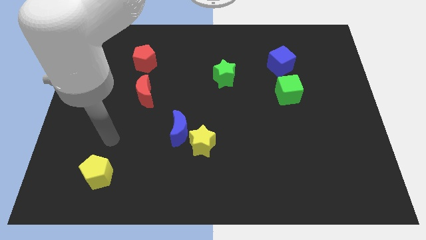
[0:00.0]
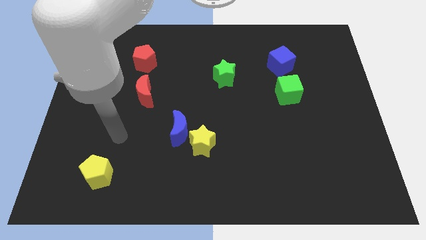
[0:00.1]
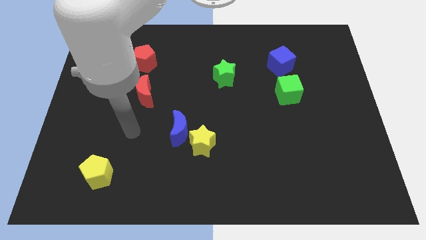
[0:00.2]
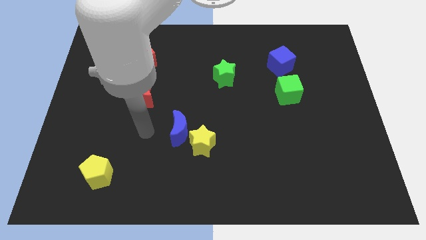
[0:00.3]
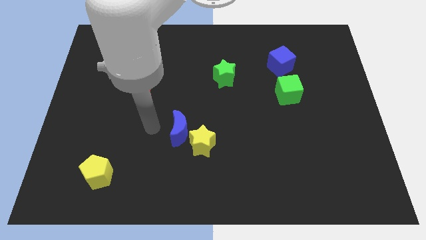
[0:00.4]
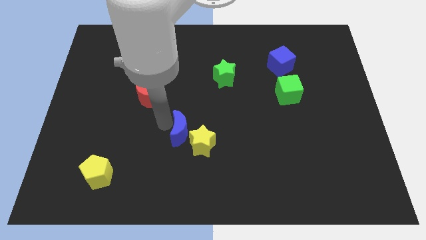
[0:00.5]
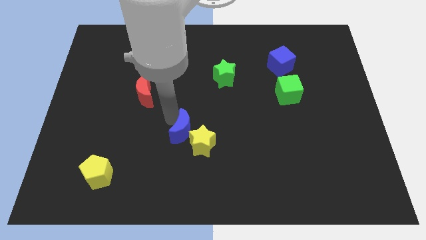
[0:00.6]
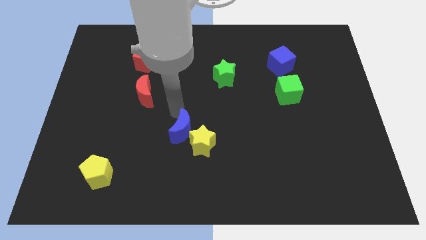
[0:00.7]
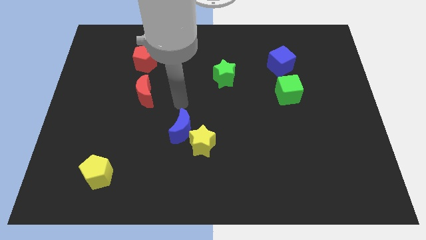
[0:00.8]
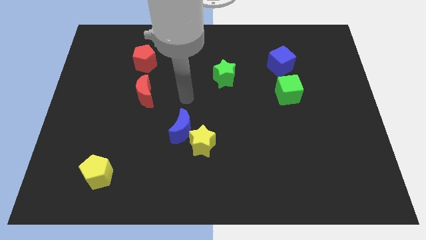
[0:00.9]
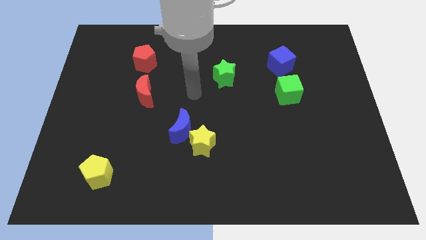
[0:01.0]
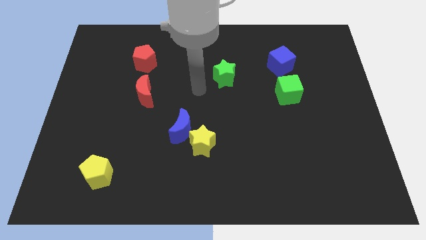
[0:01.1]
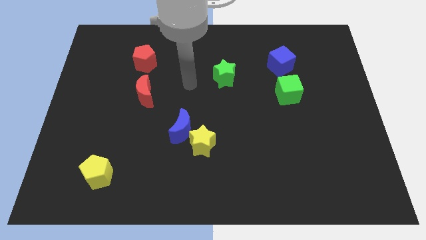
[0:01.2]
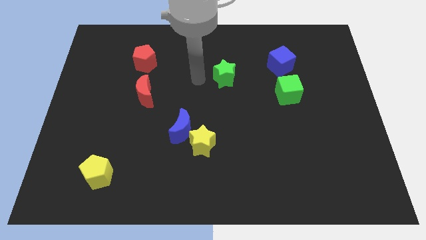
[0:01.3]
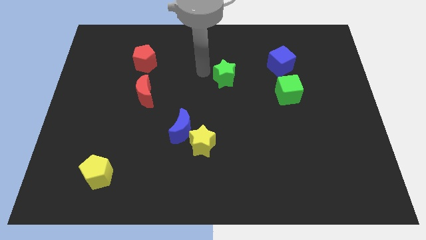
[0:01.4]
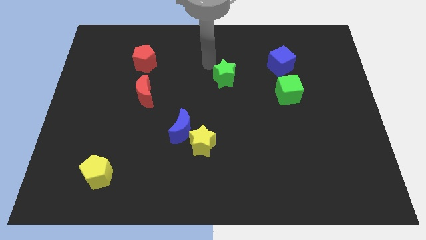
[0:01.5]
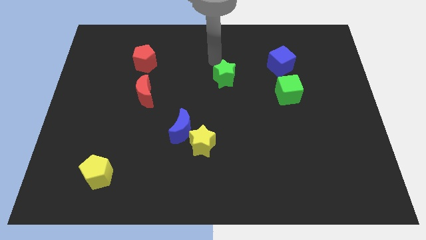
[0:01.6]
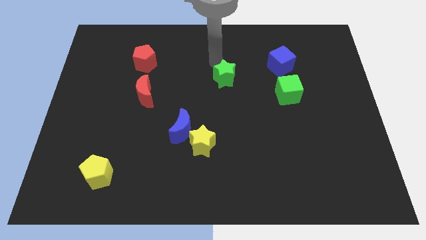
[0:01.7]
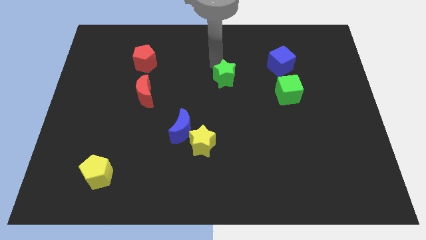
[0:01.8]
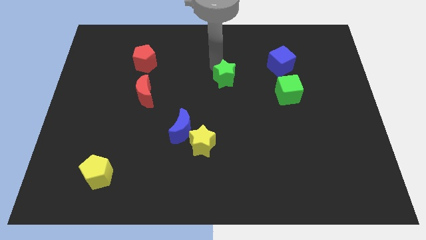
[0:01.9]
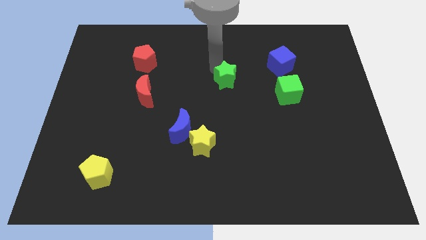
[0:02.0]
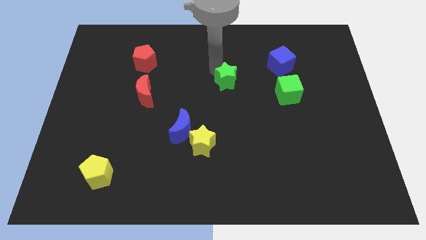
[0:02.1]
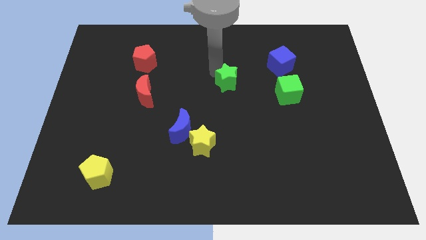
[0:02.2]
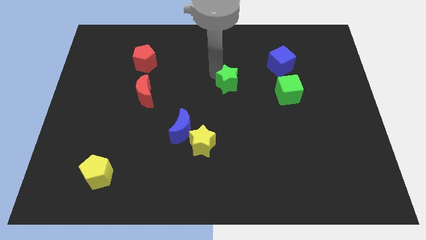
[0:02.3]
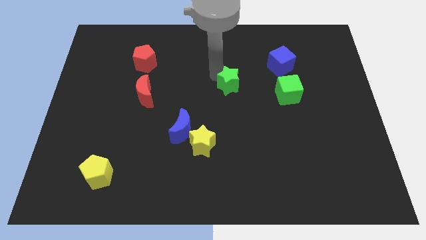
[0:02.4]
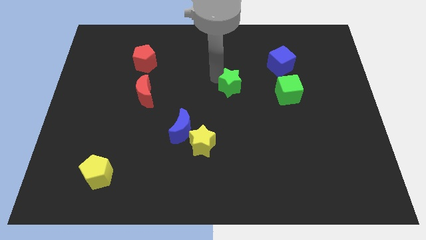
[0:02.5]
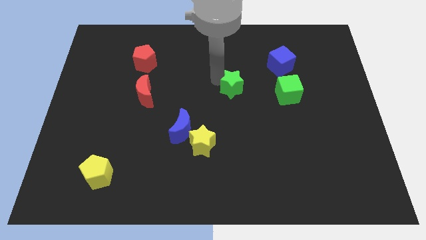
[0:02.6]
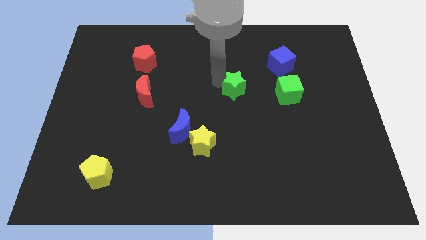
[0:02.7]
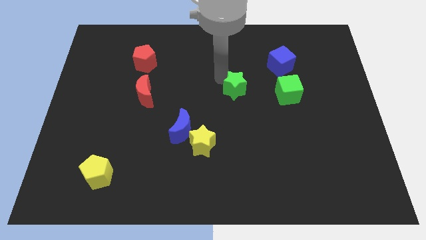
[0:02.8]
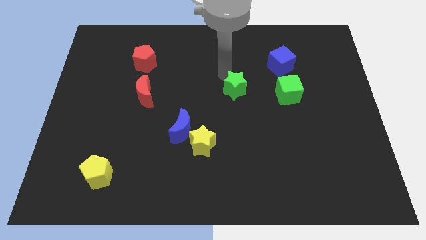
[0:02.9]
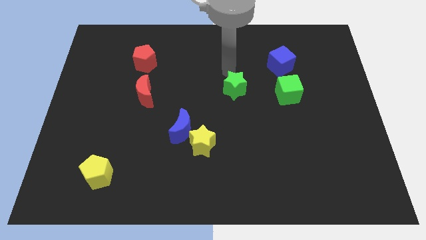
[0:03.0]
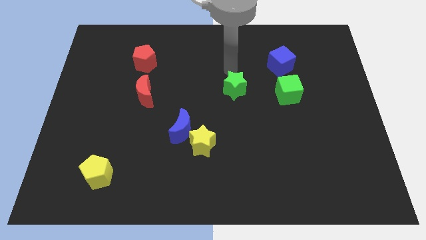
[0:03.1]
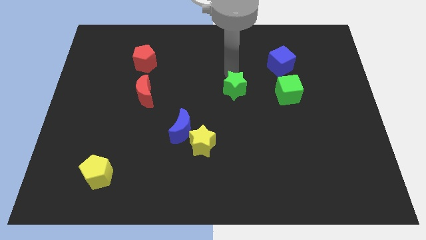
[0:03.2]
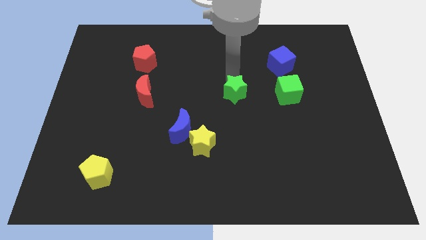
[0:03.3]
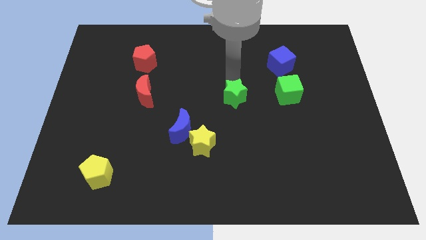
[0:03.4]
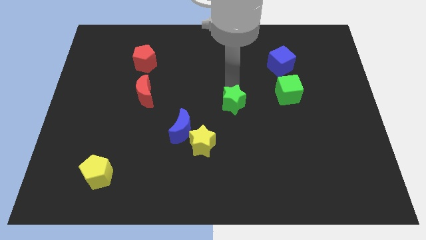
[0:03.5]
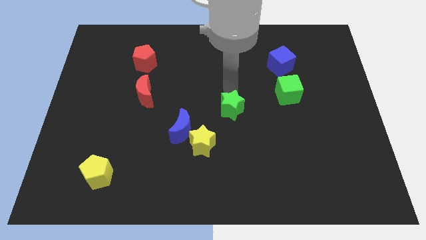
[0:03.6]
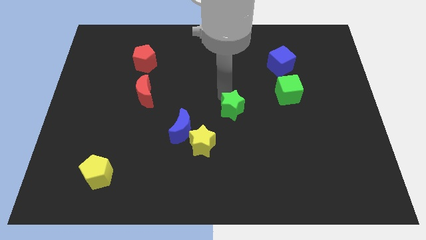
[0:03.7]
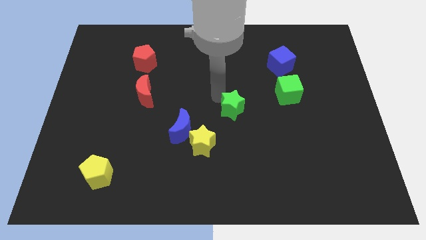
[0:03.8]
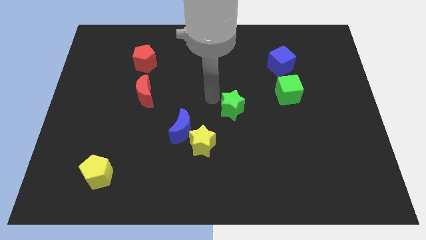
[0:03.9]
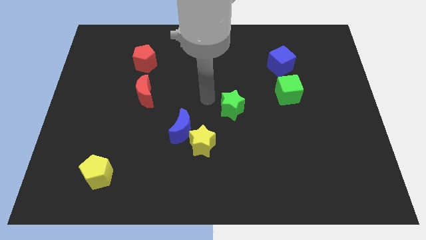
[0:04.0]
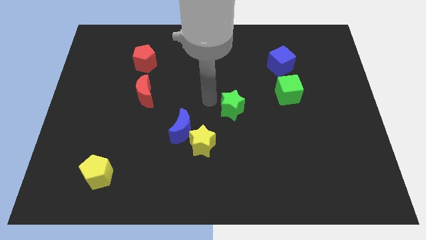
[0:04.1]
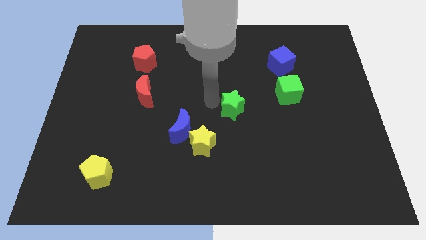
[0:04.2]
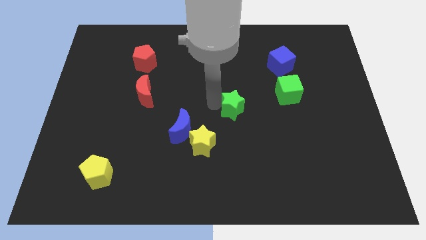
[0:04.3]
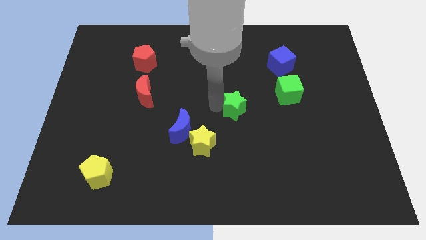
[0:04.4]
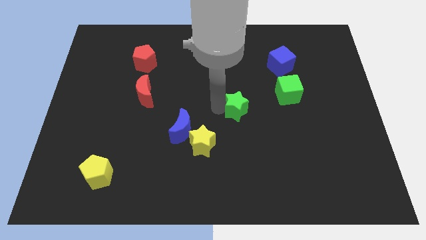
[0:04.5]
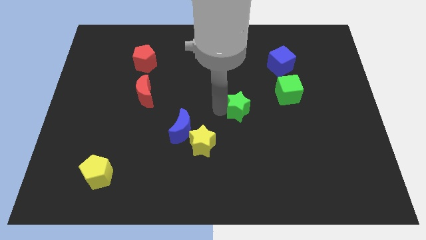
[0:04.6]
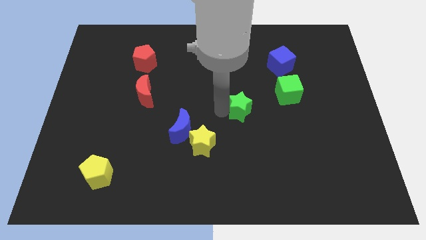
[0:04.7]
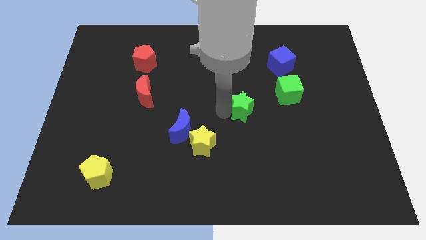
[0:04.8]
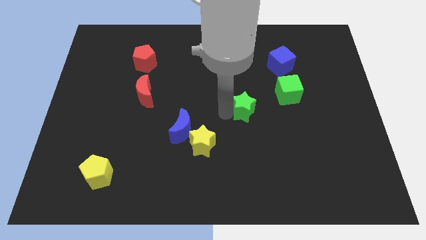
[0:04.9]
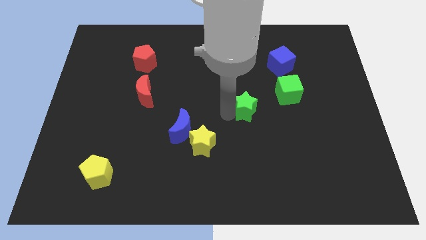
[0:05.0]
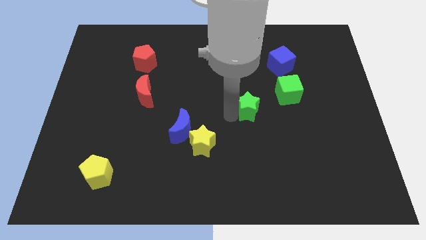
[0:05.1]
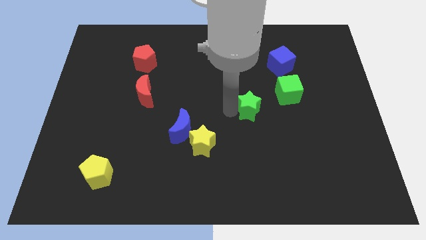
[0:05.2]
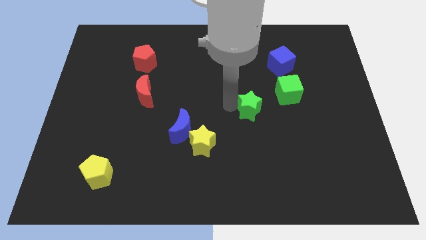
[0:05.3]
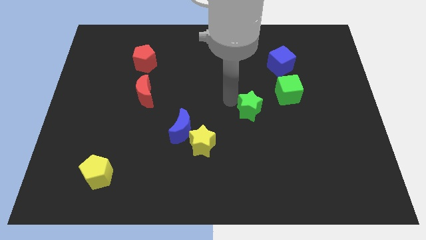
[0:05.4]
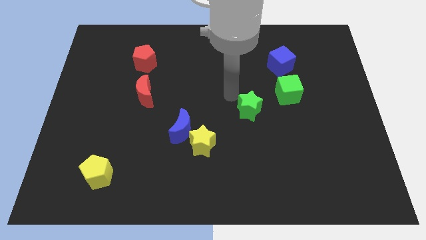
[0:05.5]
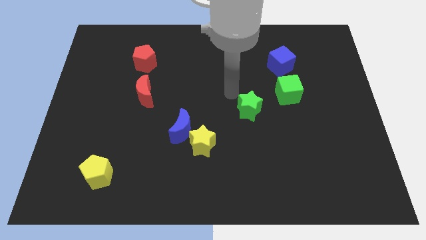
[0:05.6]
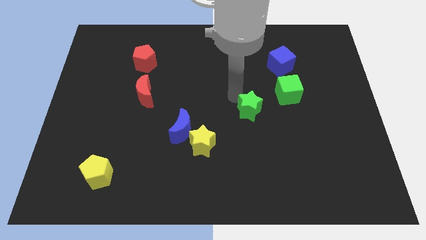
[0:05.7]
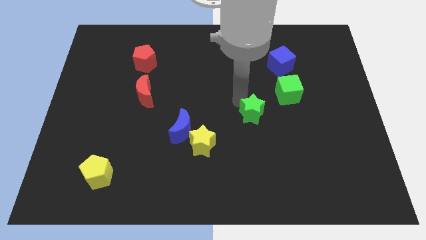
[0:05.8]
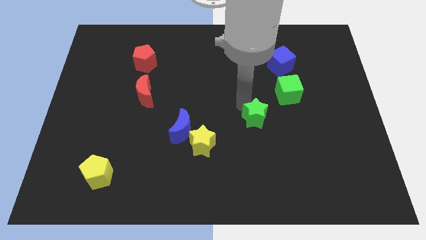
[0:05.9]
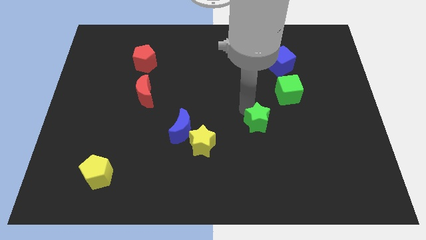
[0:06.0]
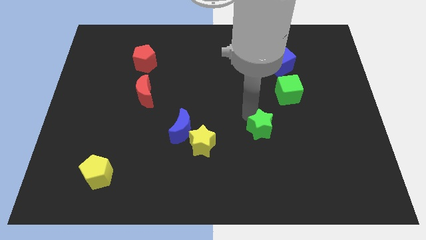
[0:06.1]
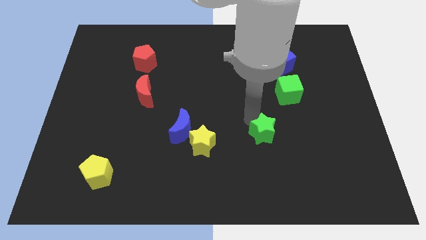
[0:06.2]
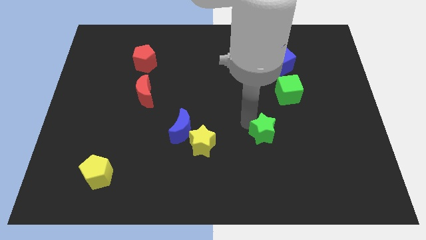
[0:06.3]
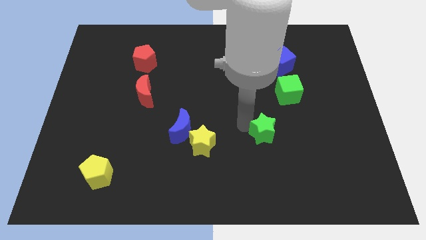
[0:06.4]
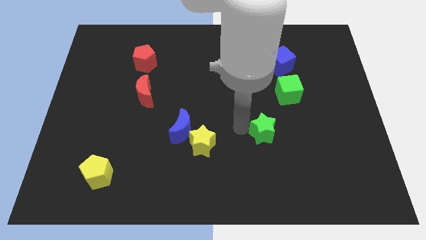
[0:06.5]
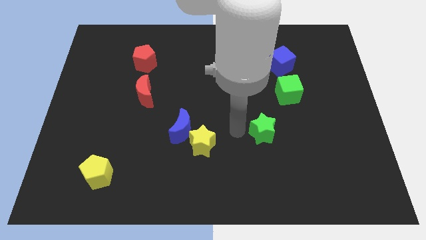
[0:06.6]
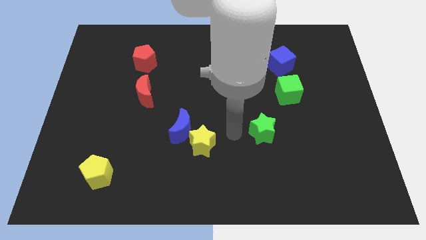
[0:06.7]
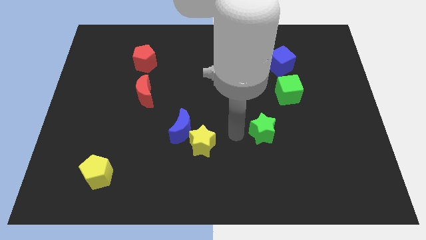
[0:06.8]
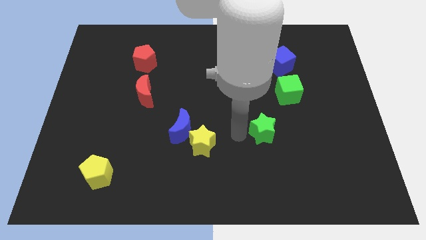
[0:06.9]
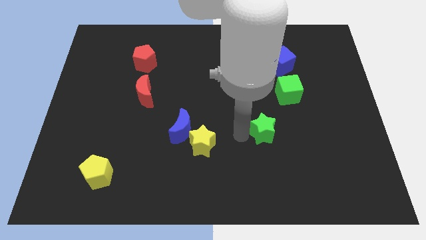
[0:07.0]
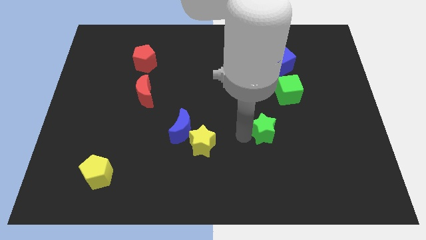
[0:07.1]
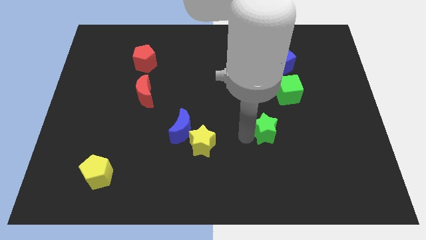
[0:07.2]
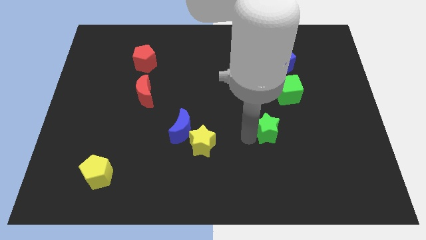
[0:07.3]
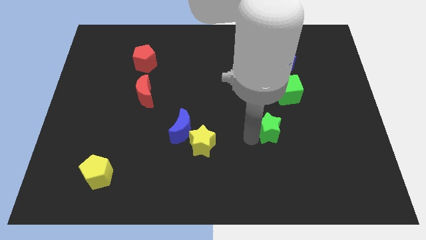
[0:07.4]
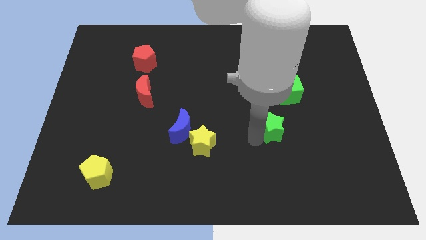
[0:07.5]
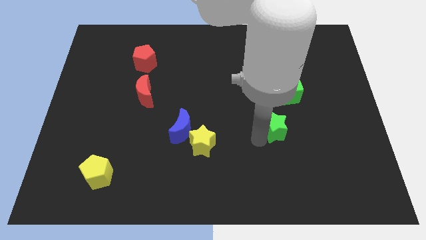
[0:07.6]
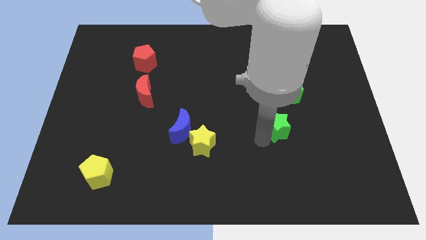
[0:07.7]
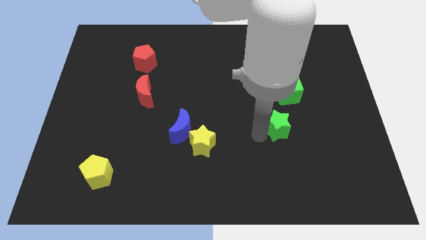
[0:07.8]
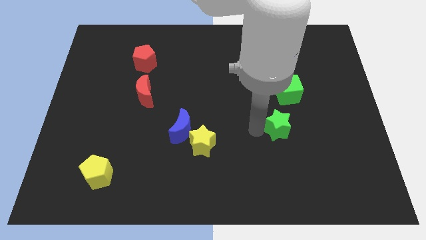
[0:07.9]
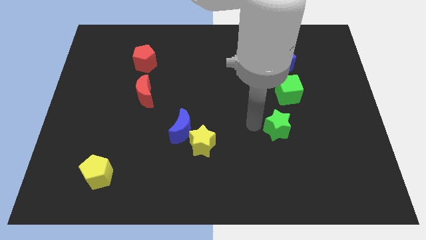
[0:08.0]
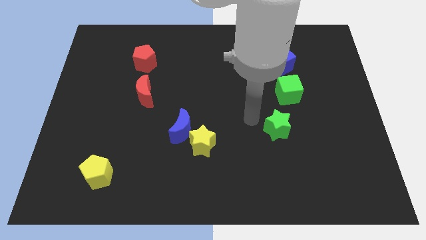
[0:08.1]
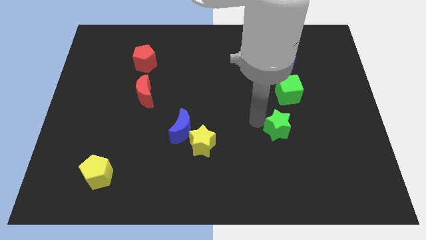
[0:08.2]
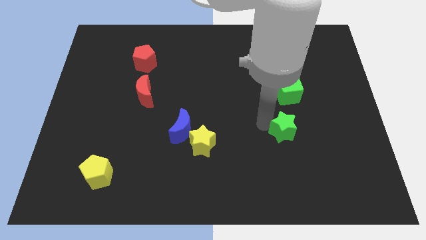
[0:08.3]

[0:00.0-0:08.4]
slide the green star diagonally down and right
